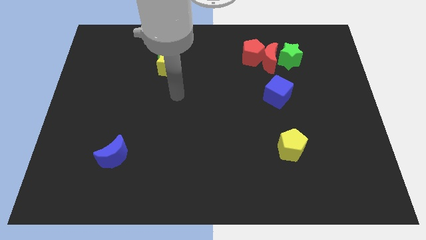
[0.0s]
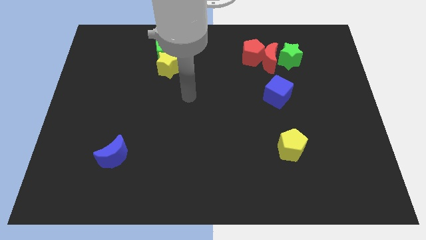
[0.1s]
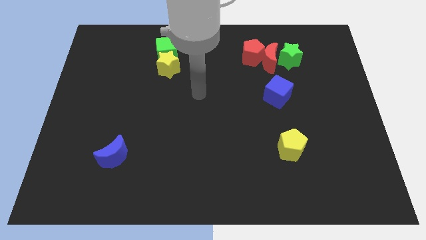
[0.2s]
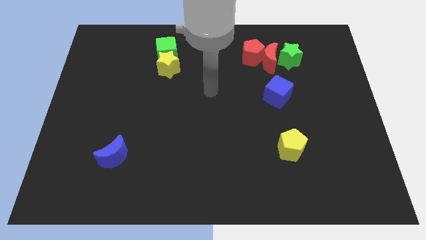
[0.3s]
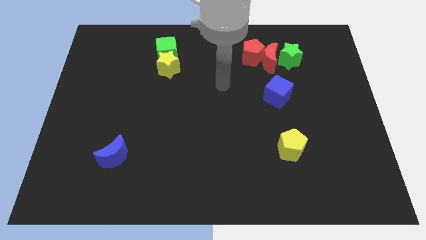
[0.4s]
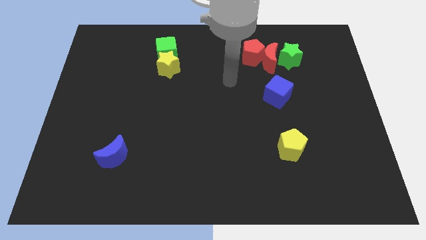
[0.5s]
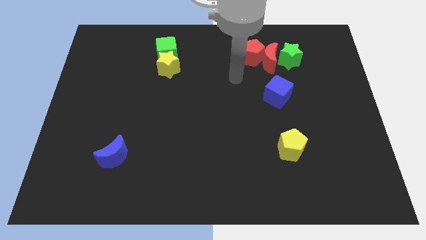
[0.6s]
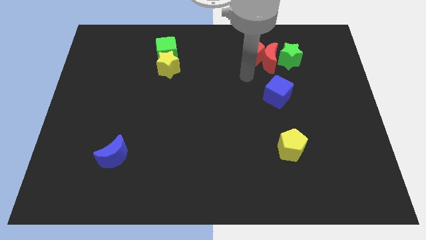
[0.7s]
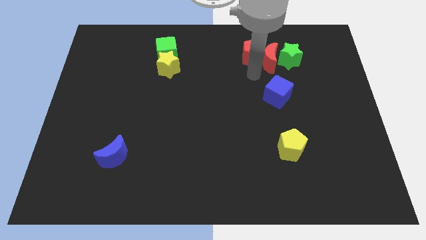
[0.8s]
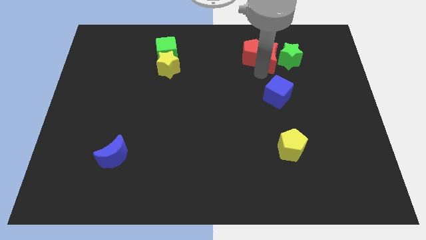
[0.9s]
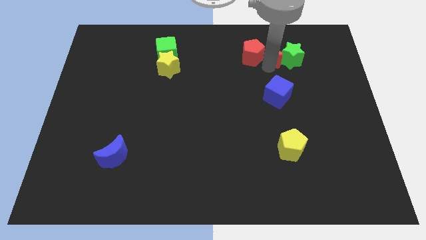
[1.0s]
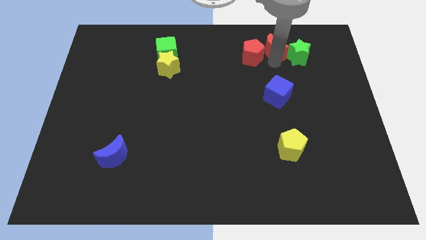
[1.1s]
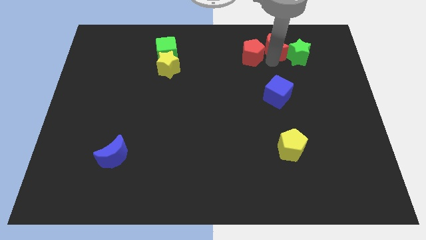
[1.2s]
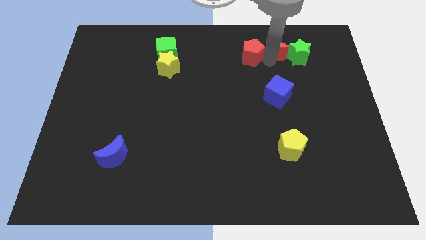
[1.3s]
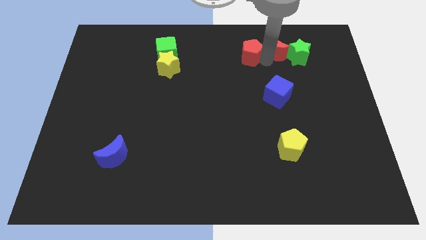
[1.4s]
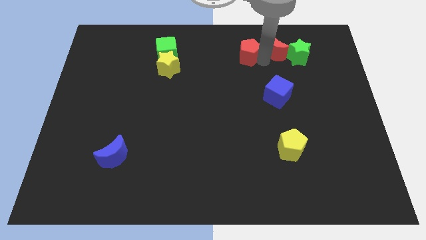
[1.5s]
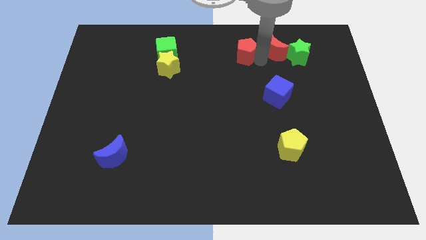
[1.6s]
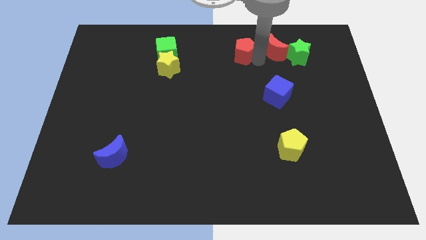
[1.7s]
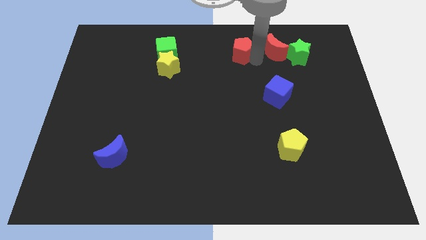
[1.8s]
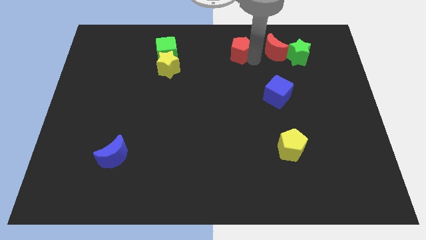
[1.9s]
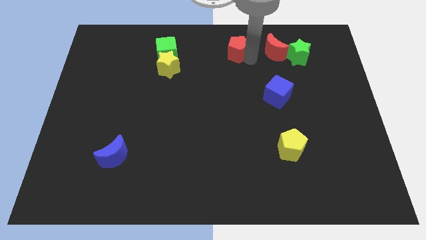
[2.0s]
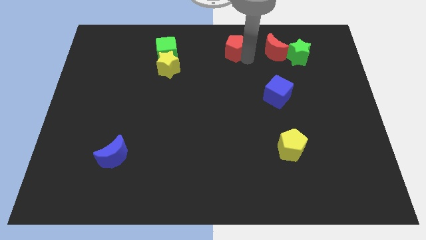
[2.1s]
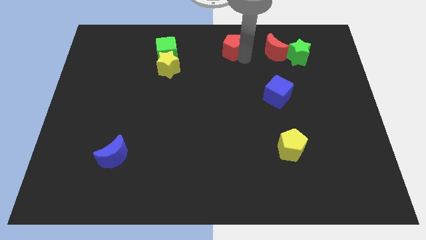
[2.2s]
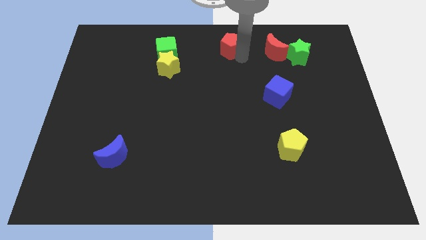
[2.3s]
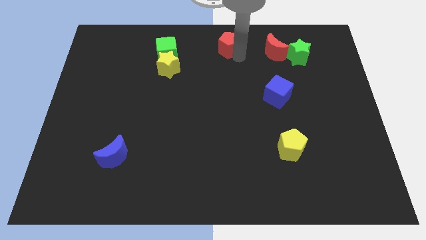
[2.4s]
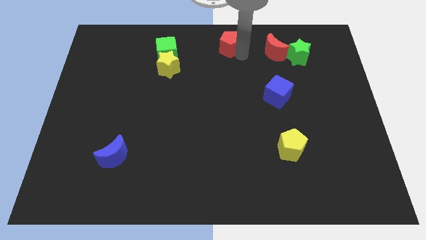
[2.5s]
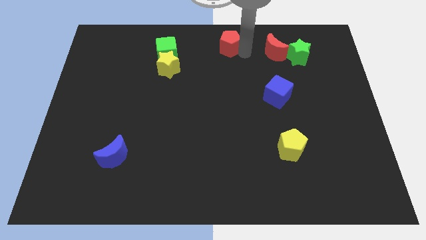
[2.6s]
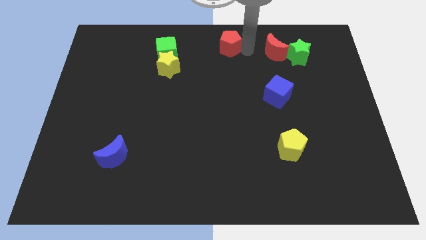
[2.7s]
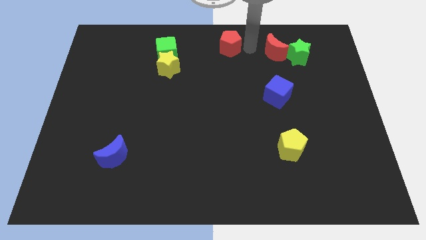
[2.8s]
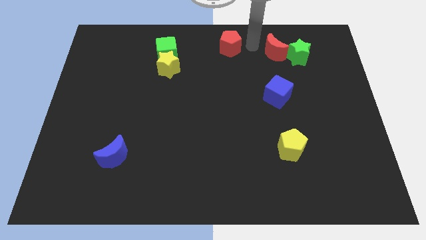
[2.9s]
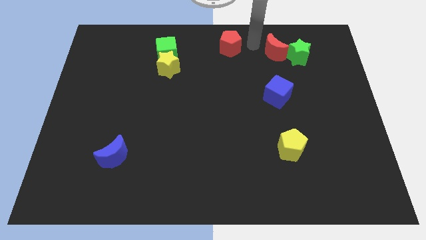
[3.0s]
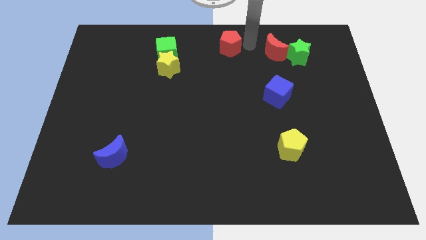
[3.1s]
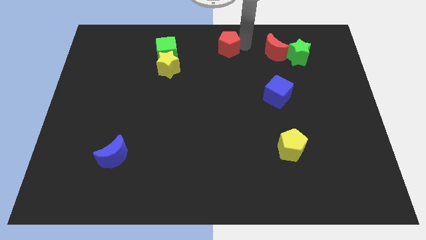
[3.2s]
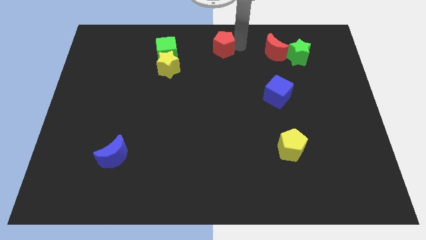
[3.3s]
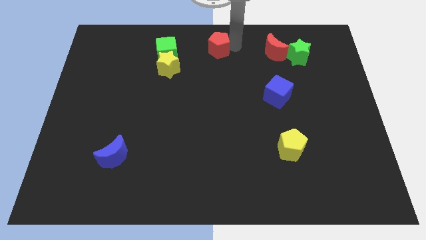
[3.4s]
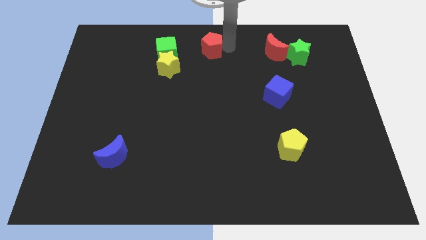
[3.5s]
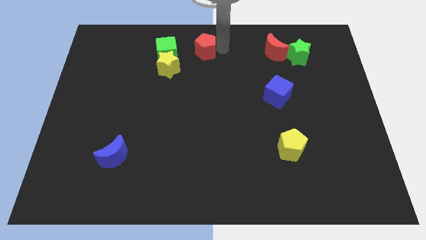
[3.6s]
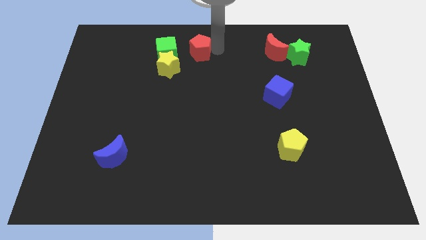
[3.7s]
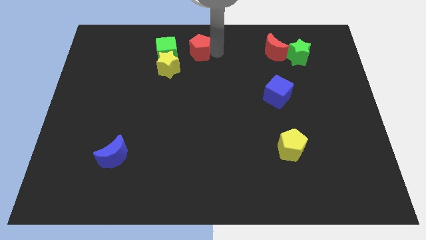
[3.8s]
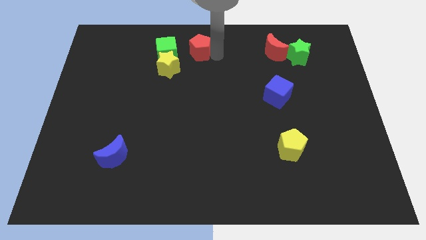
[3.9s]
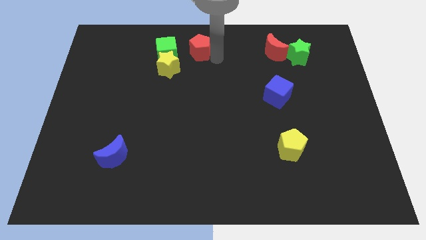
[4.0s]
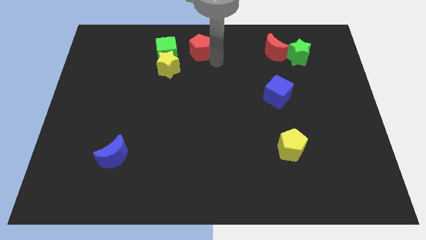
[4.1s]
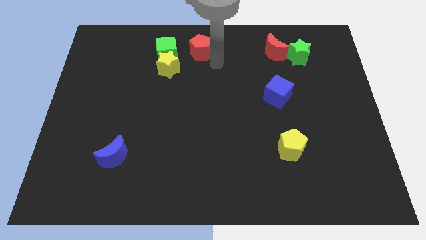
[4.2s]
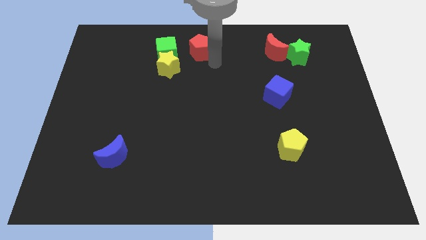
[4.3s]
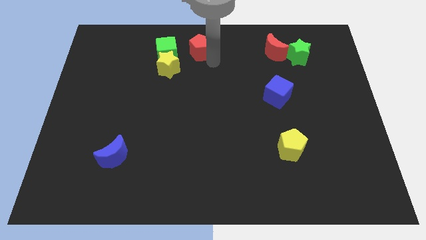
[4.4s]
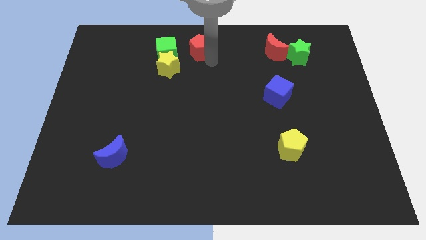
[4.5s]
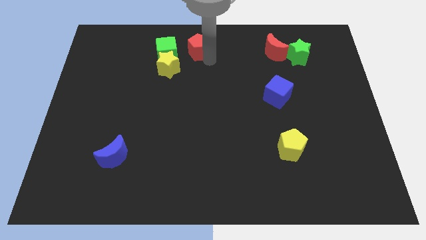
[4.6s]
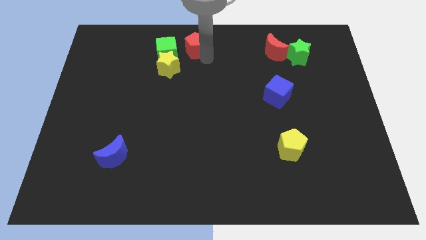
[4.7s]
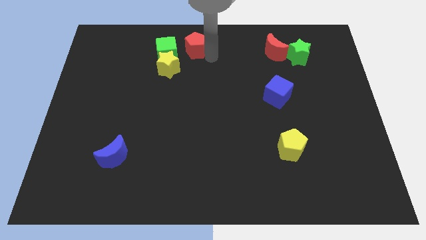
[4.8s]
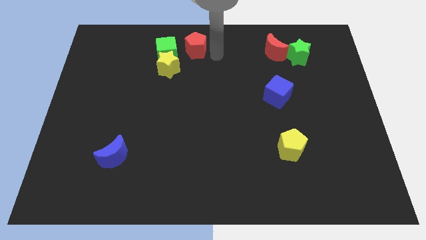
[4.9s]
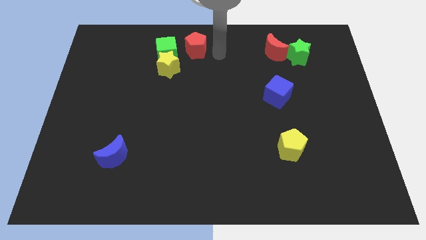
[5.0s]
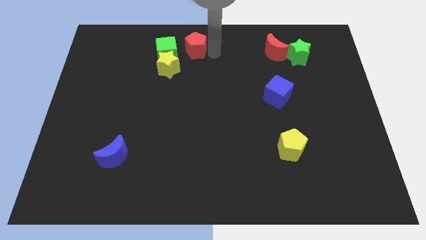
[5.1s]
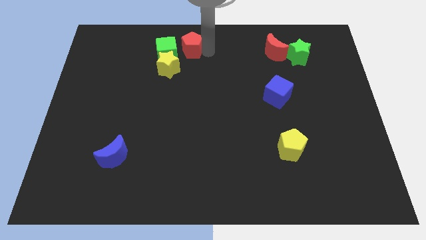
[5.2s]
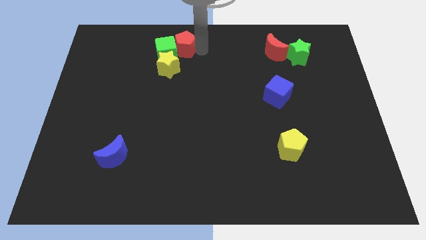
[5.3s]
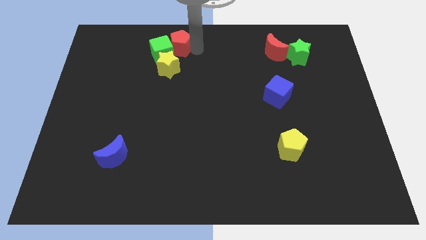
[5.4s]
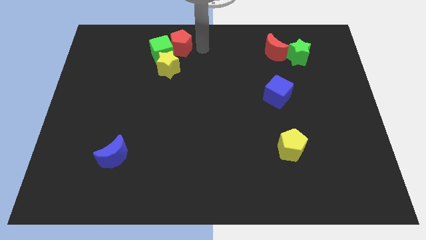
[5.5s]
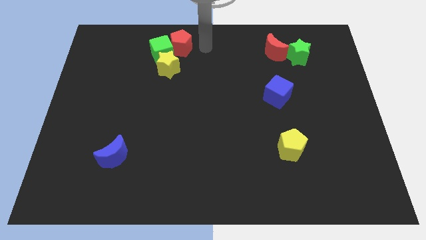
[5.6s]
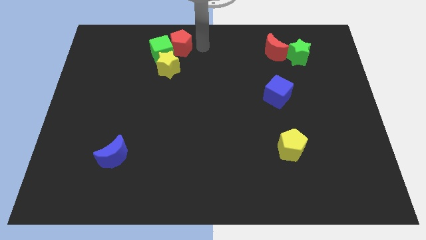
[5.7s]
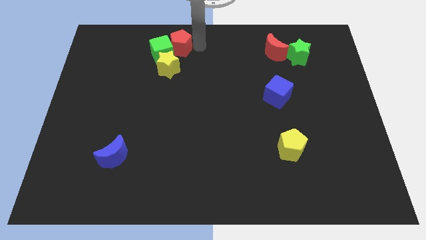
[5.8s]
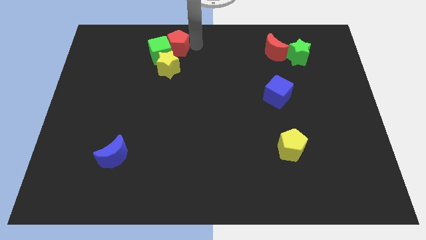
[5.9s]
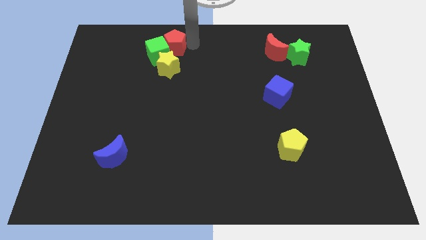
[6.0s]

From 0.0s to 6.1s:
push the red pentagon to the left

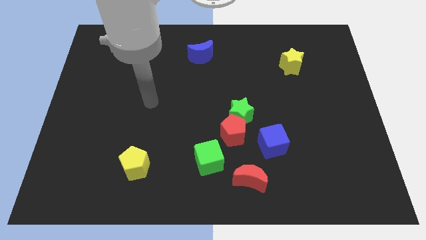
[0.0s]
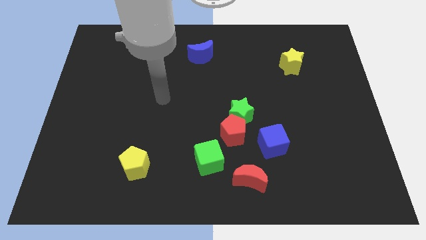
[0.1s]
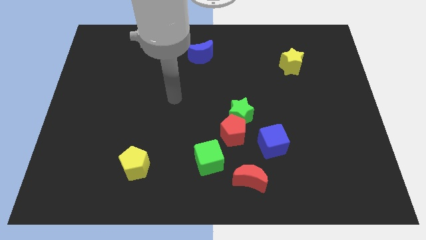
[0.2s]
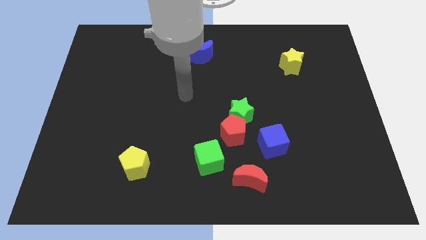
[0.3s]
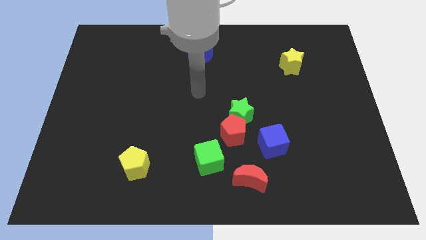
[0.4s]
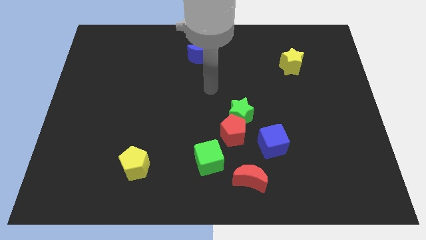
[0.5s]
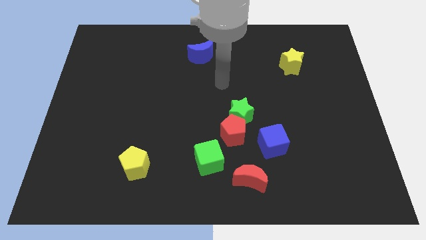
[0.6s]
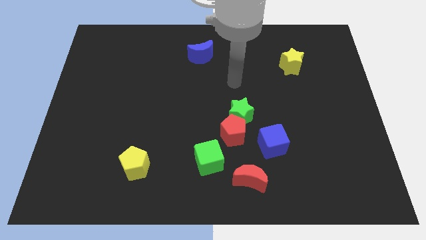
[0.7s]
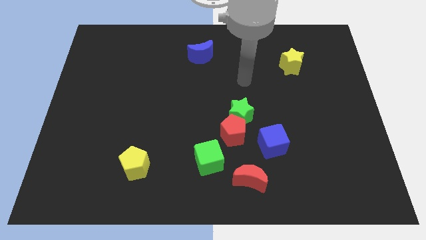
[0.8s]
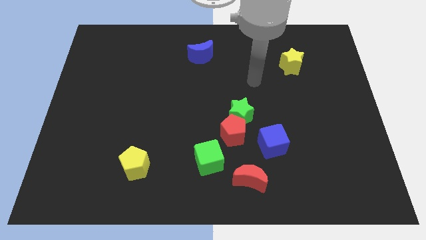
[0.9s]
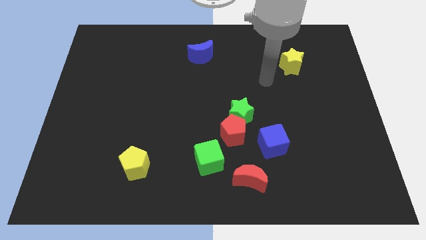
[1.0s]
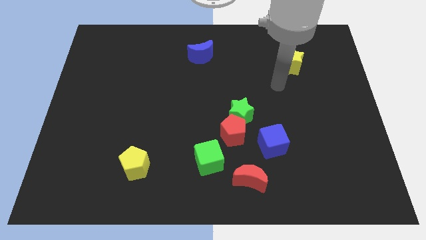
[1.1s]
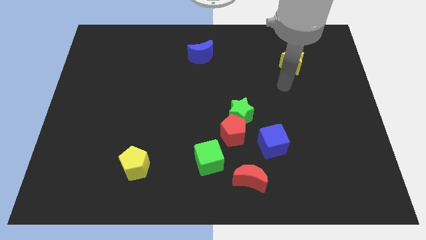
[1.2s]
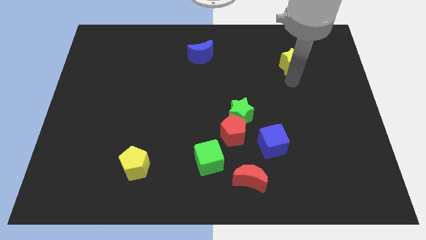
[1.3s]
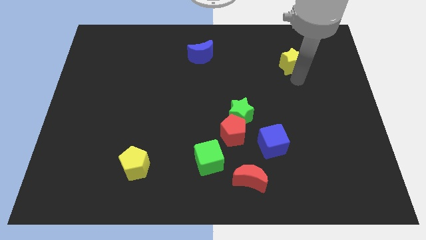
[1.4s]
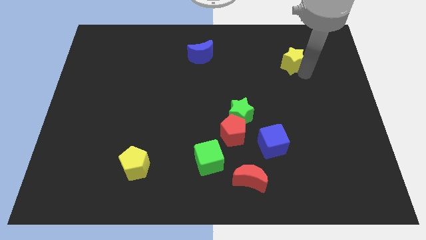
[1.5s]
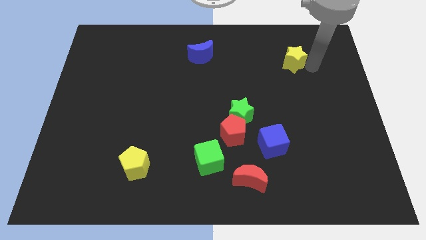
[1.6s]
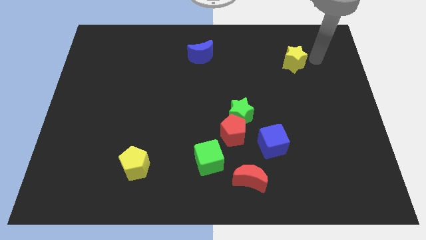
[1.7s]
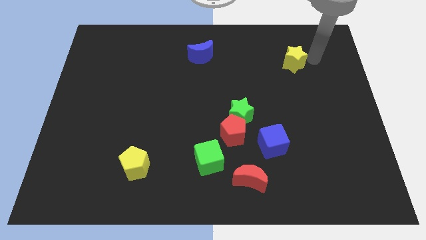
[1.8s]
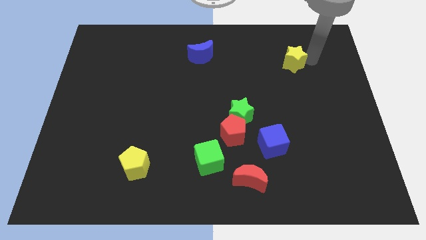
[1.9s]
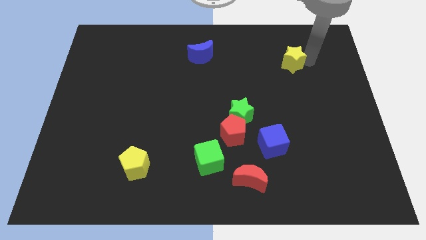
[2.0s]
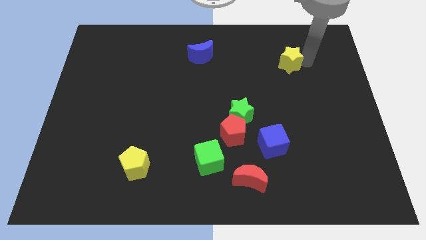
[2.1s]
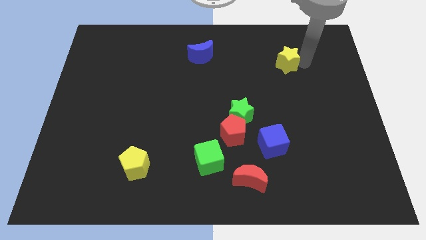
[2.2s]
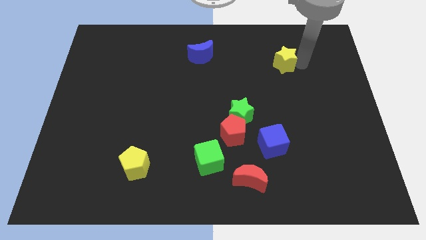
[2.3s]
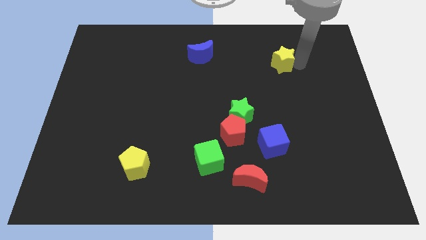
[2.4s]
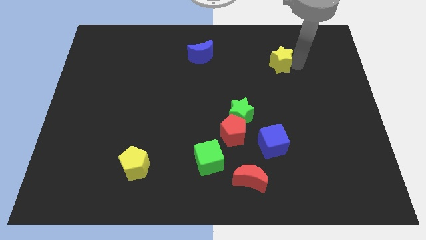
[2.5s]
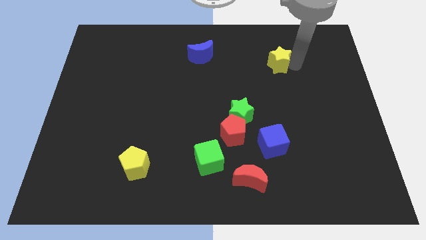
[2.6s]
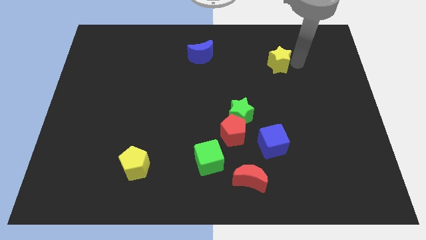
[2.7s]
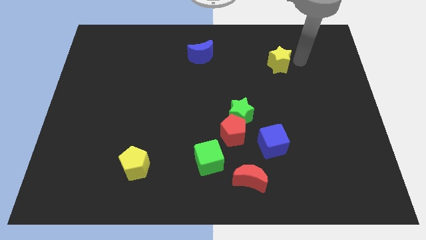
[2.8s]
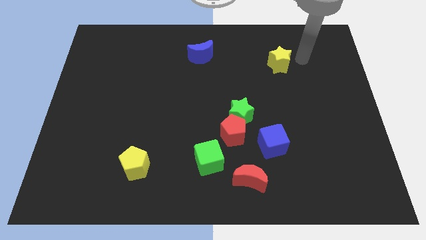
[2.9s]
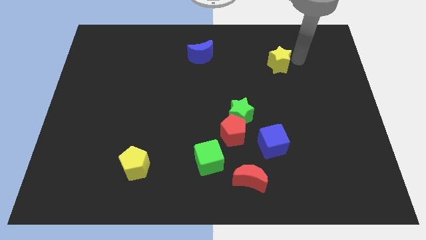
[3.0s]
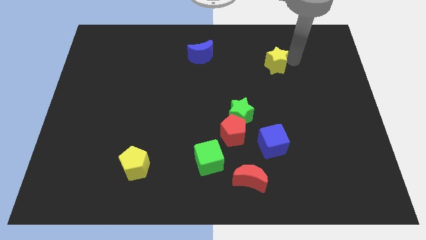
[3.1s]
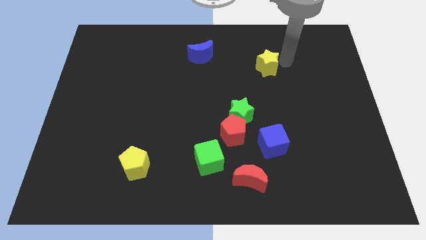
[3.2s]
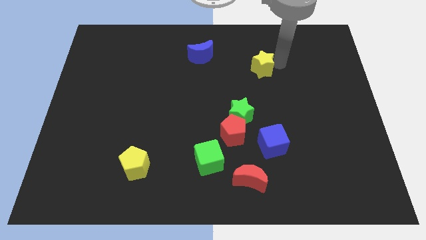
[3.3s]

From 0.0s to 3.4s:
push the yellow star to the left somewhat
